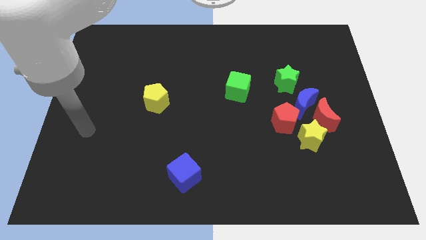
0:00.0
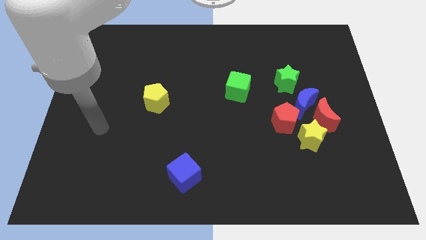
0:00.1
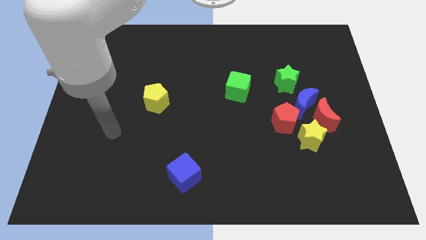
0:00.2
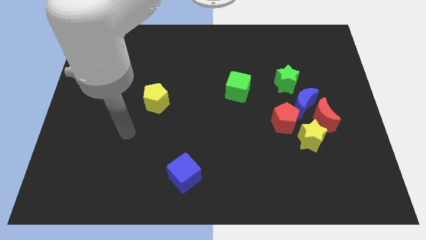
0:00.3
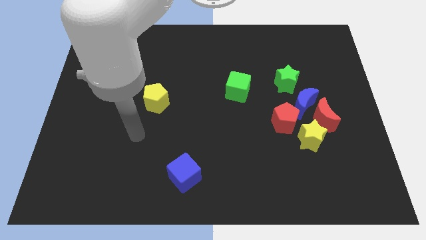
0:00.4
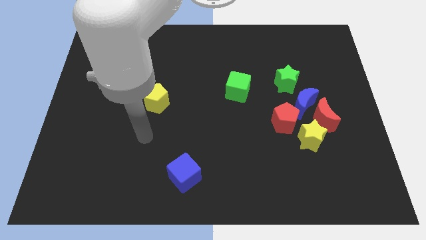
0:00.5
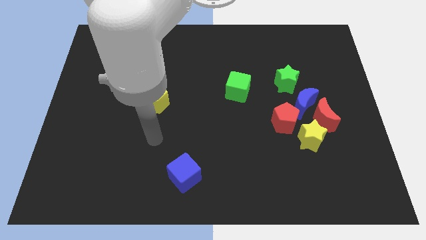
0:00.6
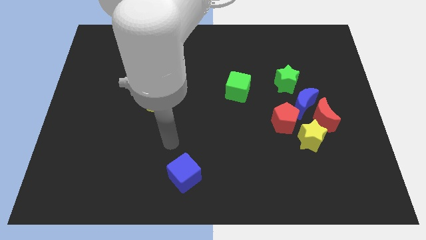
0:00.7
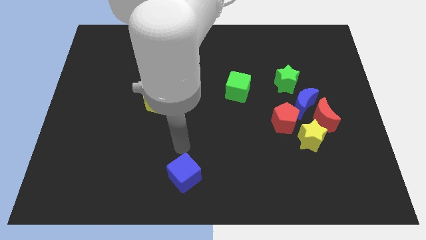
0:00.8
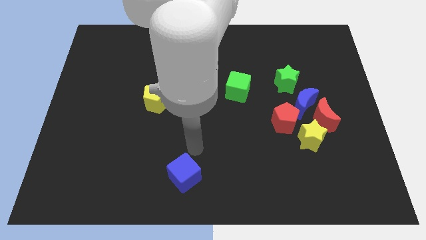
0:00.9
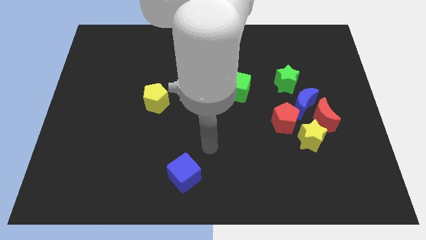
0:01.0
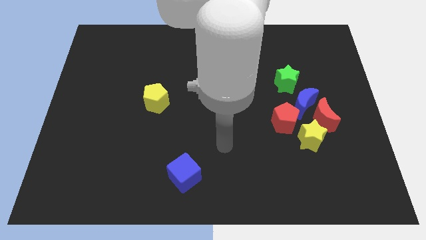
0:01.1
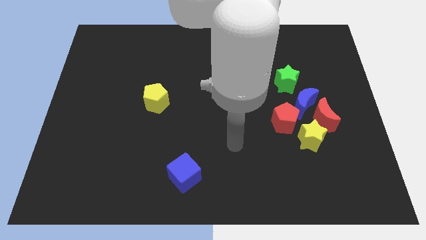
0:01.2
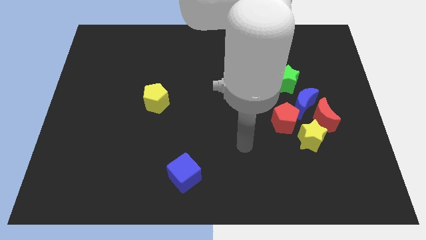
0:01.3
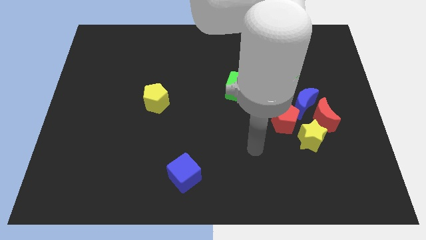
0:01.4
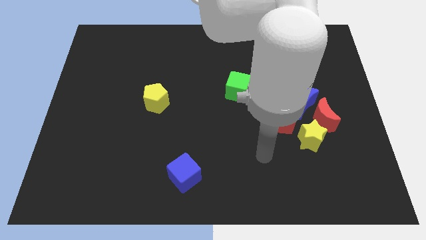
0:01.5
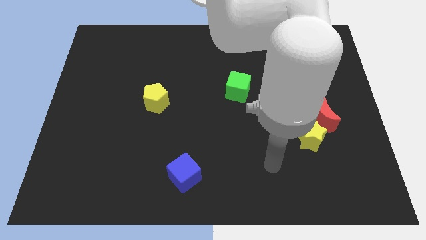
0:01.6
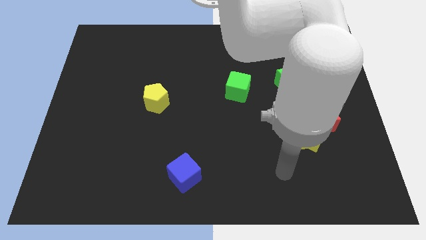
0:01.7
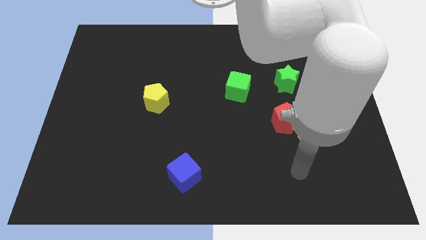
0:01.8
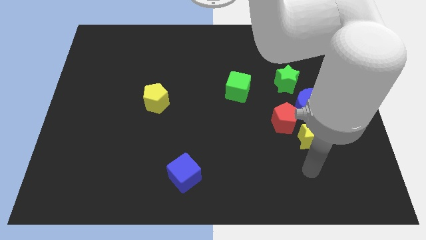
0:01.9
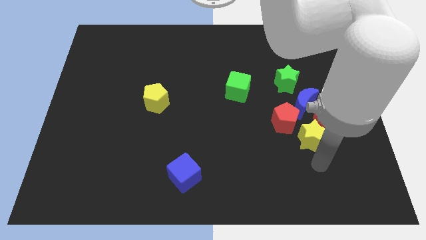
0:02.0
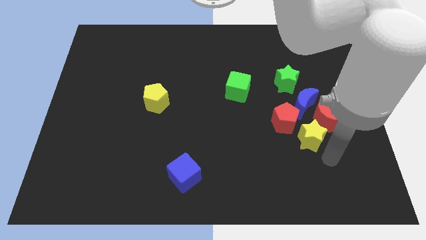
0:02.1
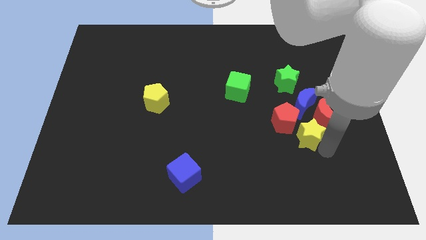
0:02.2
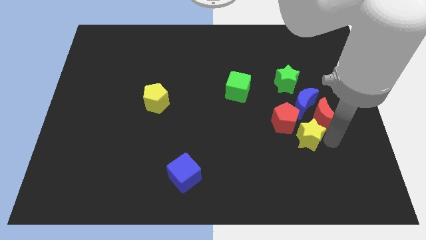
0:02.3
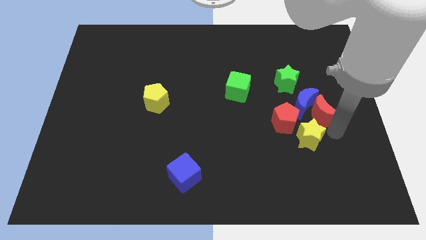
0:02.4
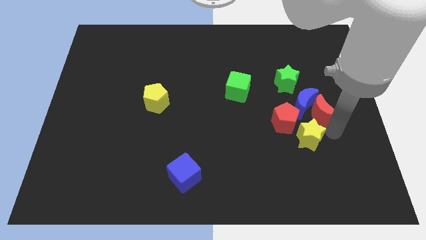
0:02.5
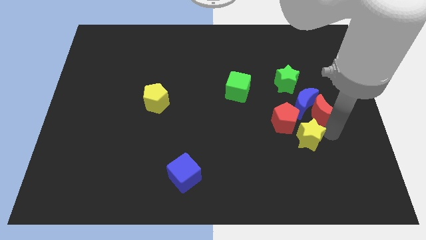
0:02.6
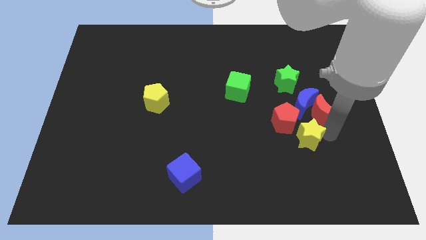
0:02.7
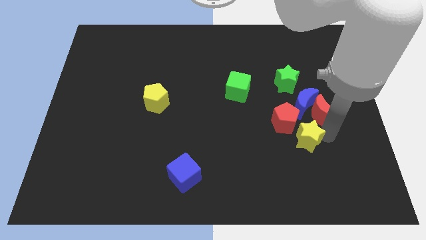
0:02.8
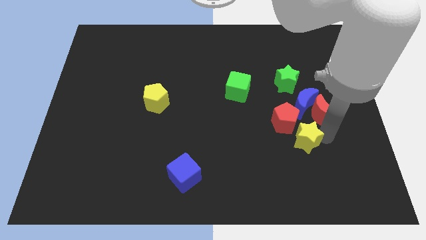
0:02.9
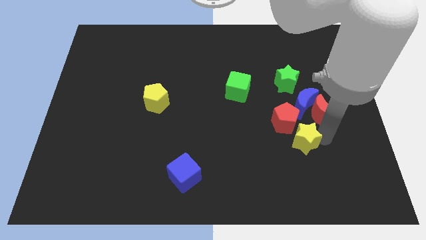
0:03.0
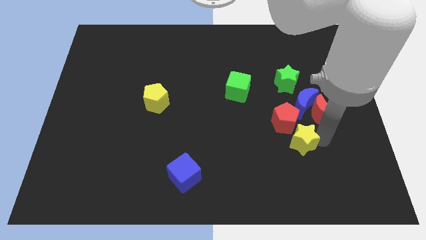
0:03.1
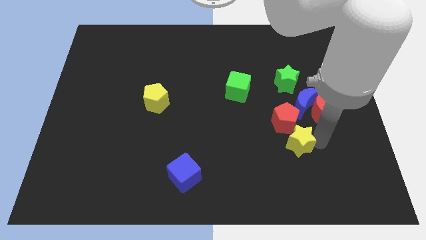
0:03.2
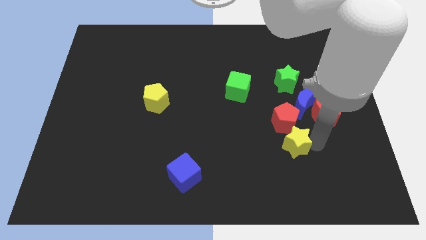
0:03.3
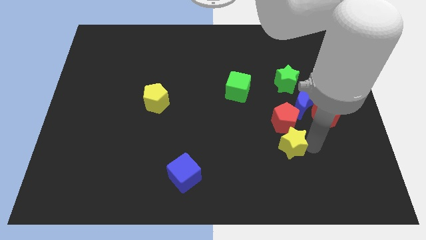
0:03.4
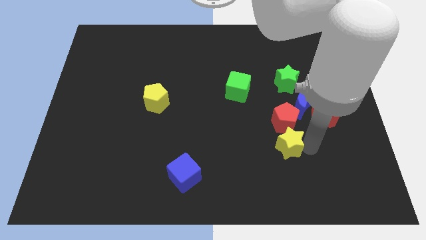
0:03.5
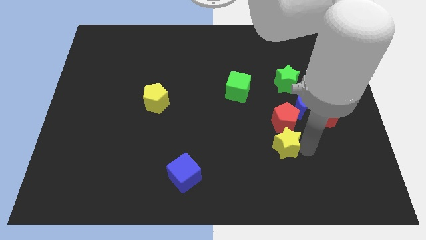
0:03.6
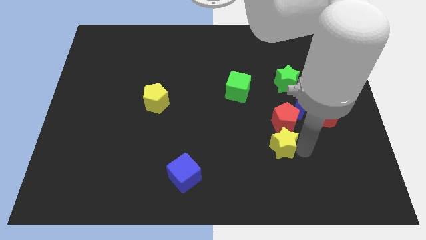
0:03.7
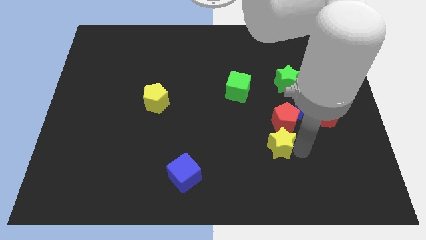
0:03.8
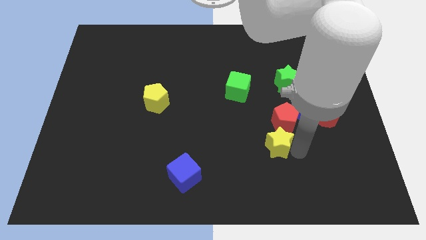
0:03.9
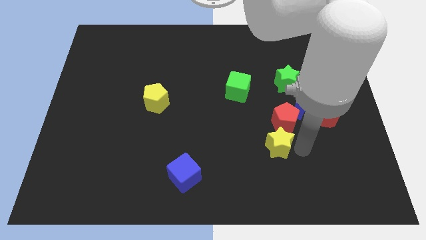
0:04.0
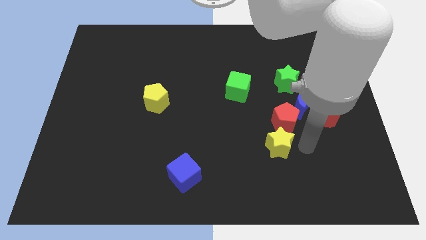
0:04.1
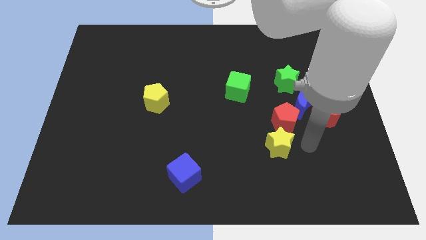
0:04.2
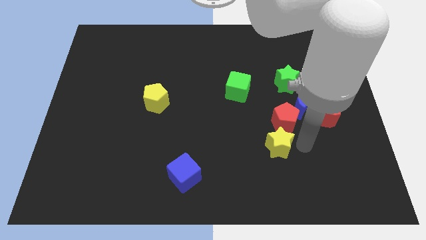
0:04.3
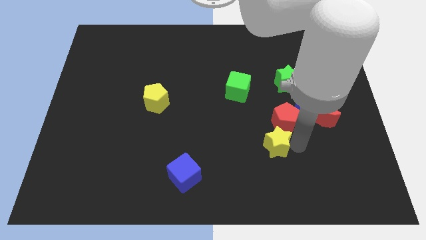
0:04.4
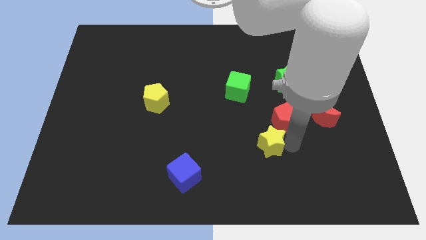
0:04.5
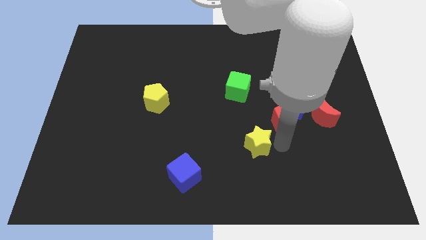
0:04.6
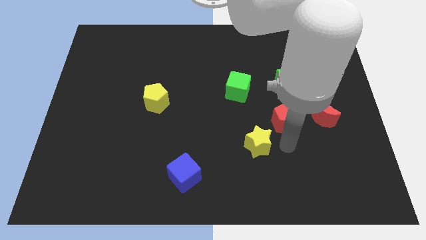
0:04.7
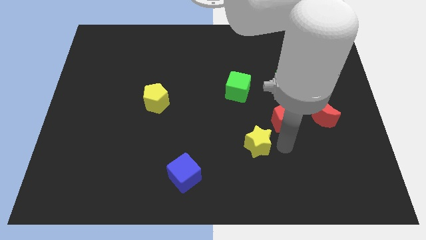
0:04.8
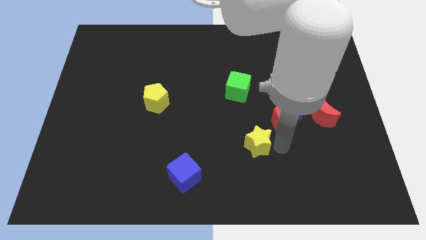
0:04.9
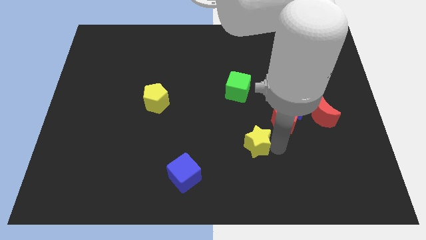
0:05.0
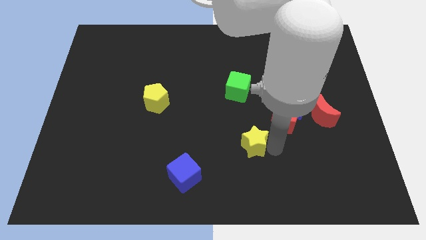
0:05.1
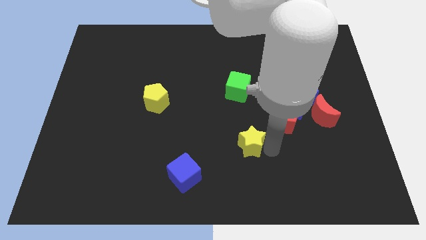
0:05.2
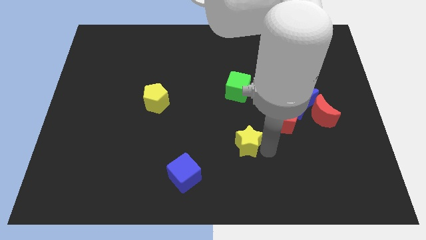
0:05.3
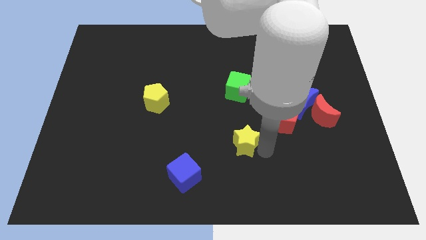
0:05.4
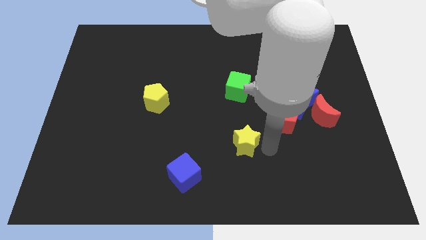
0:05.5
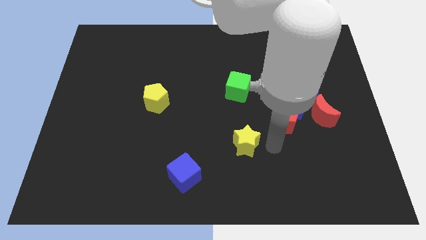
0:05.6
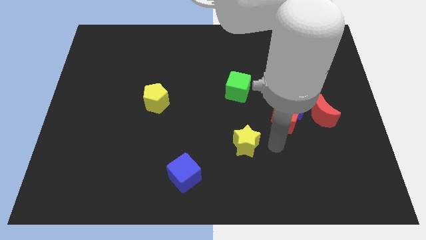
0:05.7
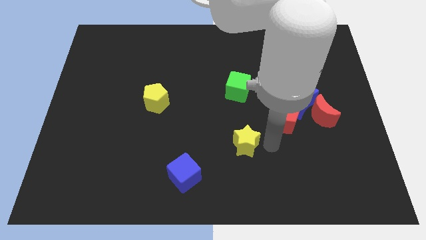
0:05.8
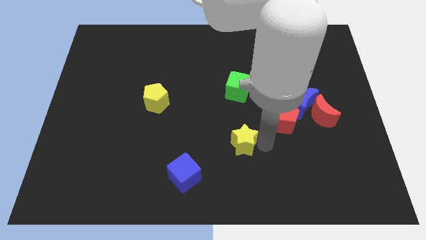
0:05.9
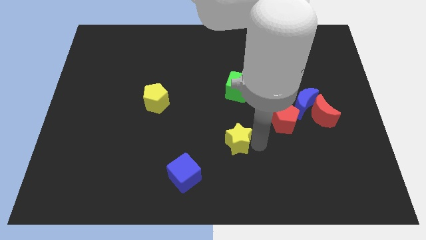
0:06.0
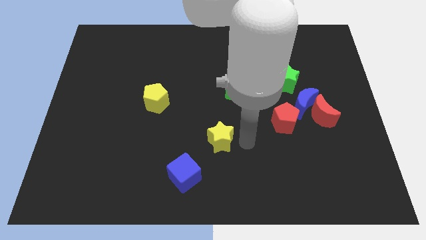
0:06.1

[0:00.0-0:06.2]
push the yellow star left

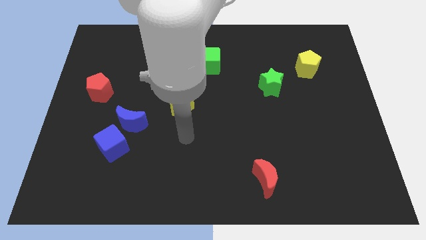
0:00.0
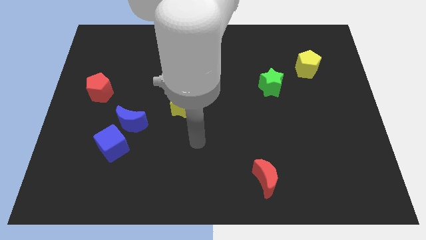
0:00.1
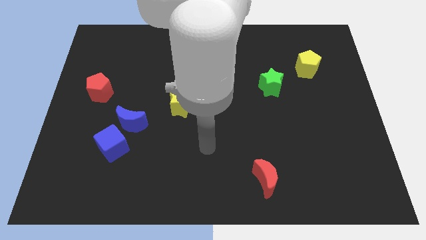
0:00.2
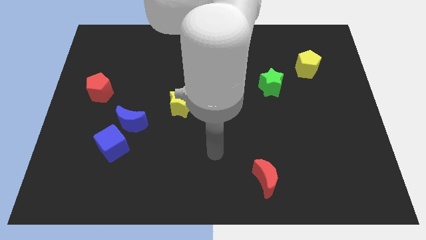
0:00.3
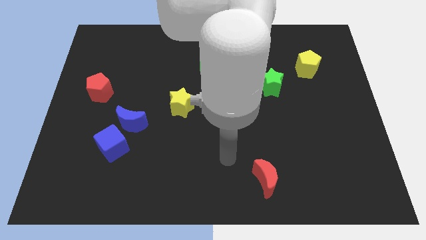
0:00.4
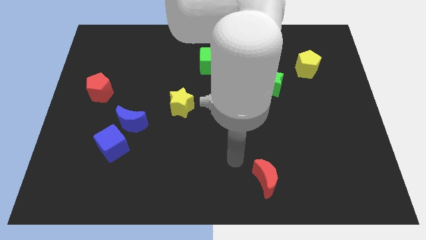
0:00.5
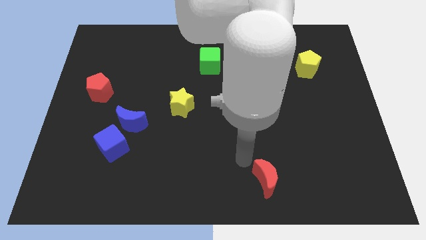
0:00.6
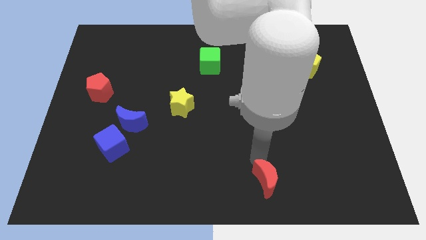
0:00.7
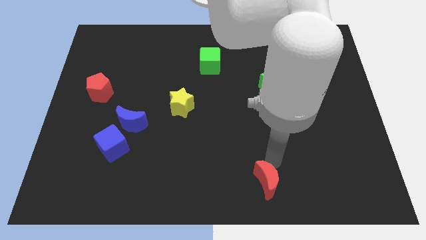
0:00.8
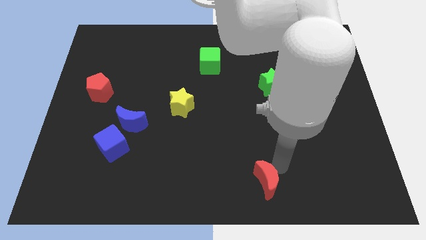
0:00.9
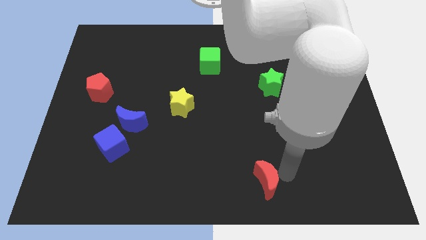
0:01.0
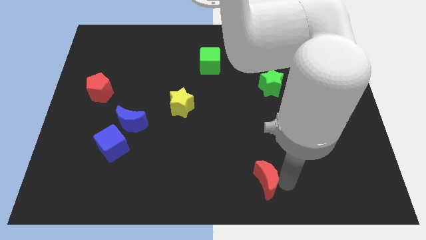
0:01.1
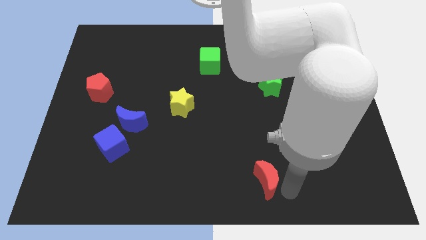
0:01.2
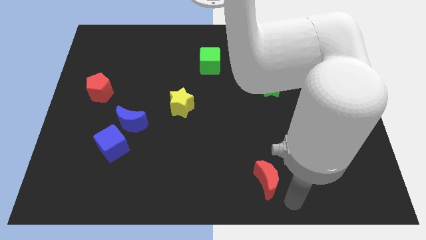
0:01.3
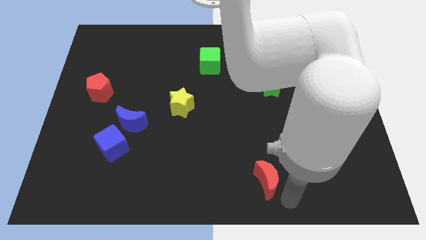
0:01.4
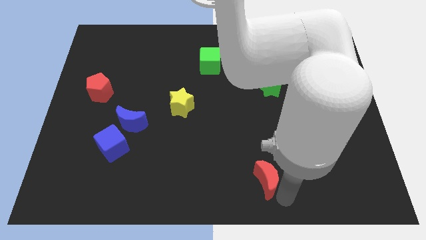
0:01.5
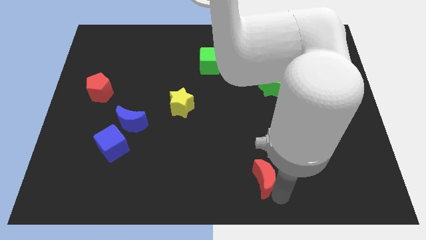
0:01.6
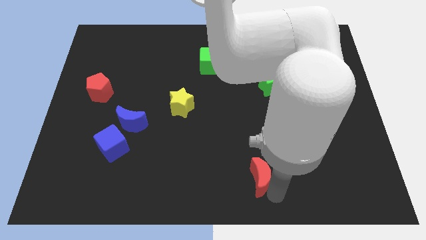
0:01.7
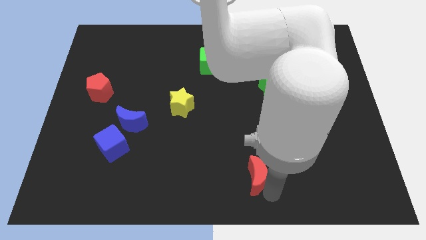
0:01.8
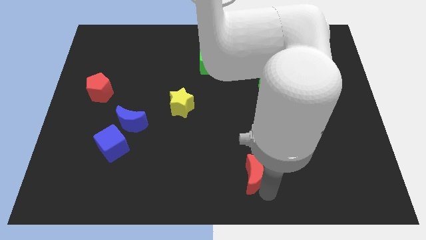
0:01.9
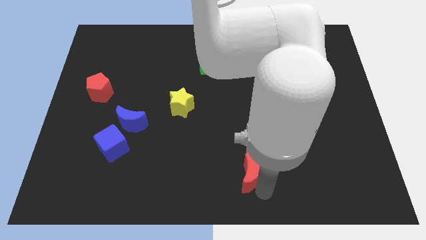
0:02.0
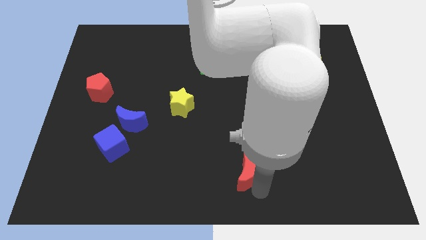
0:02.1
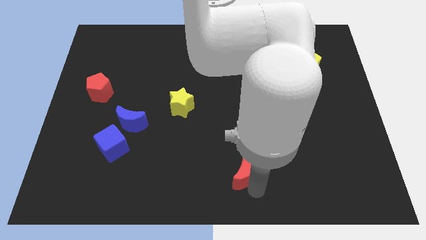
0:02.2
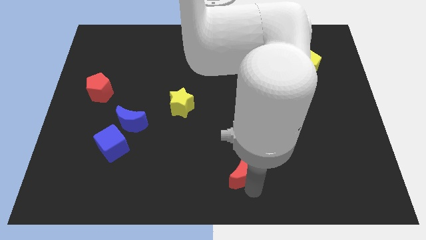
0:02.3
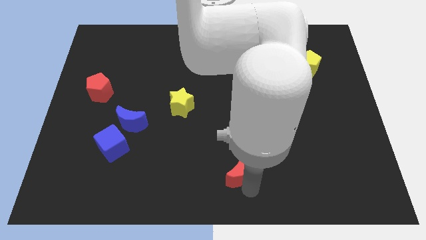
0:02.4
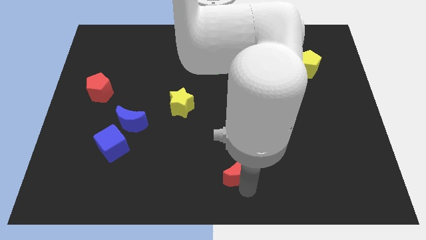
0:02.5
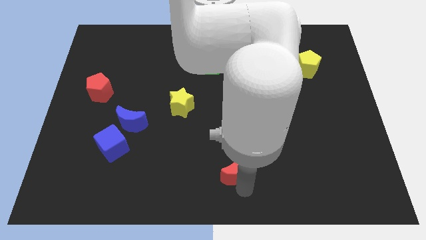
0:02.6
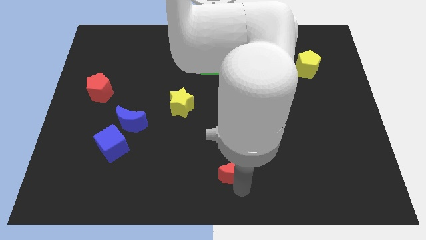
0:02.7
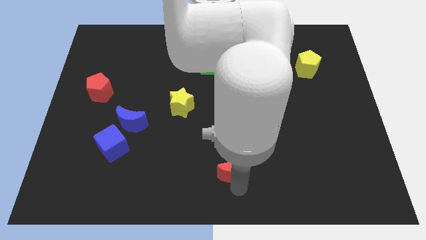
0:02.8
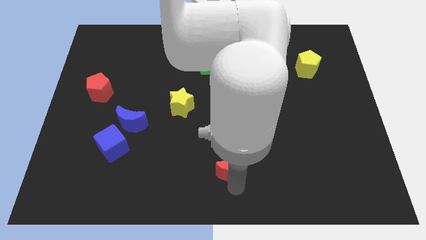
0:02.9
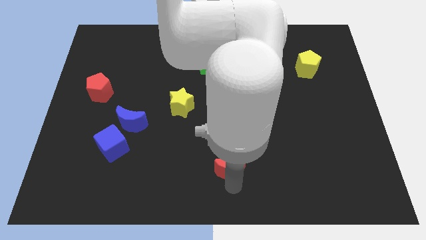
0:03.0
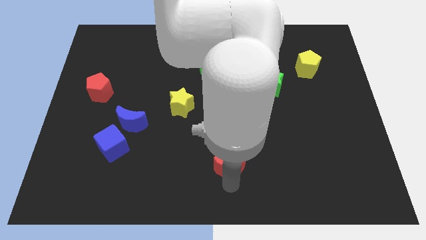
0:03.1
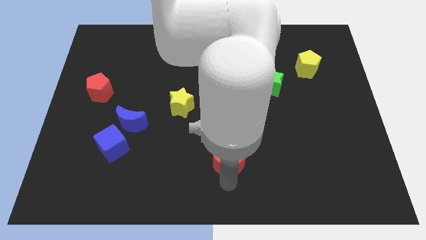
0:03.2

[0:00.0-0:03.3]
move the red moon a little bit up and left diagonally
